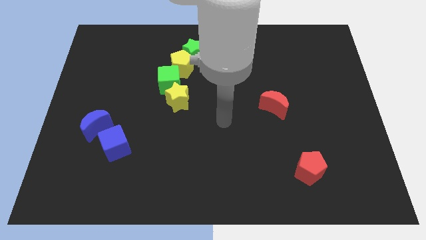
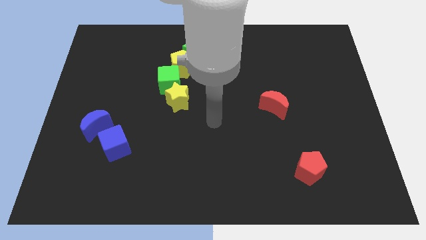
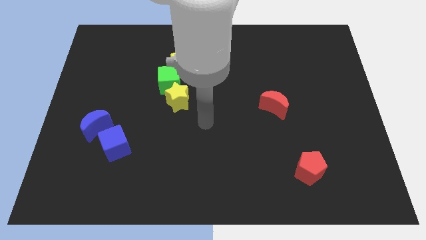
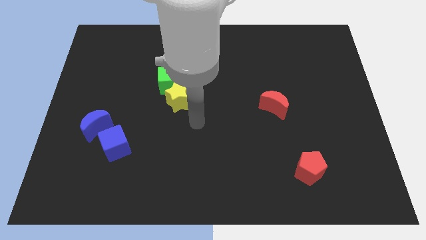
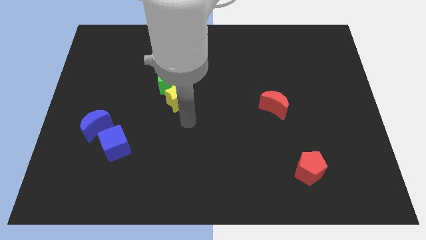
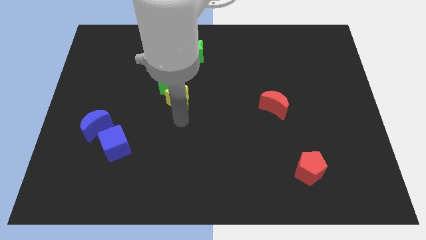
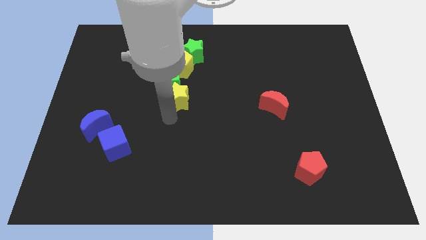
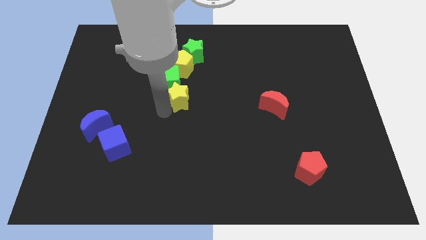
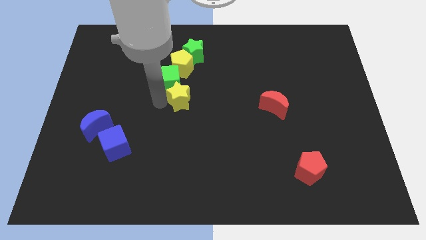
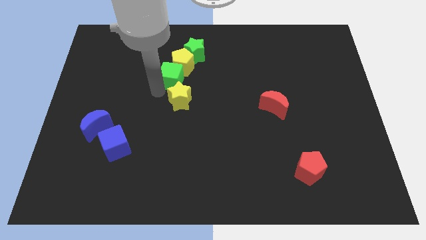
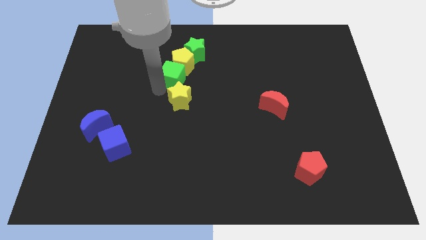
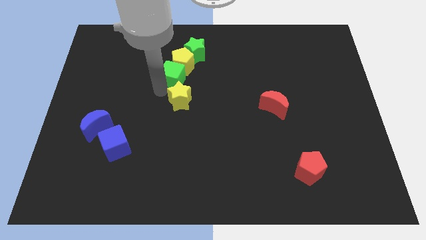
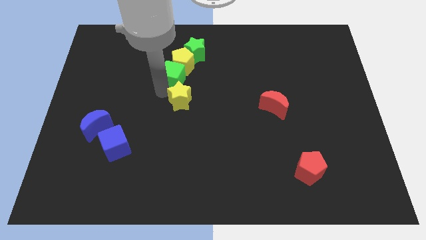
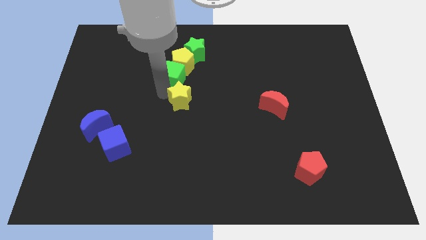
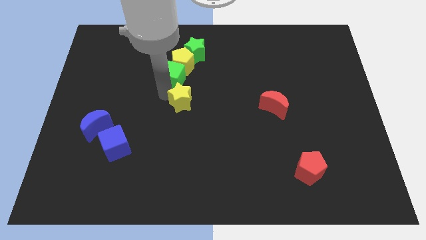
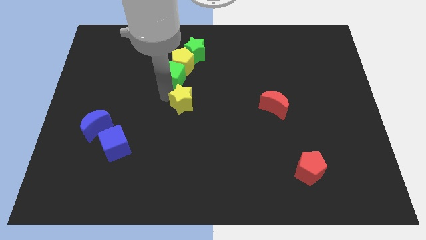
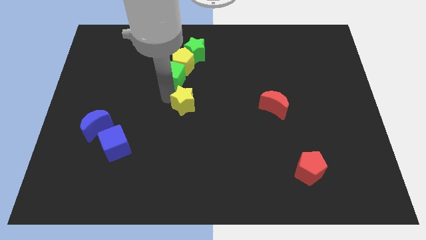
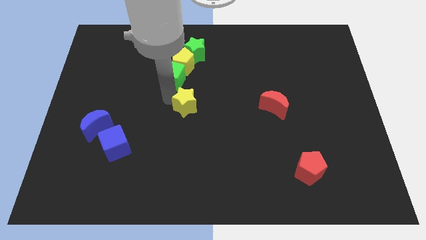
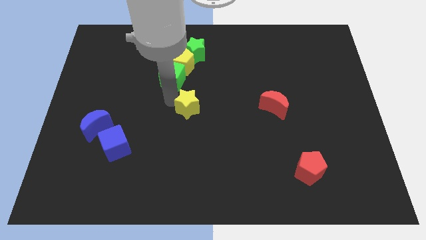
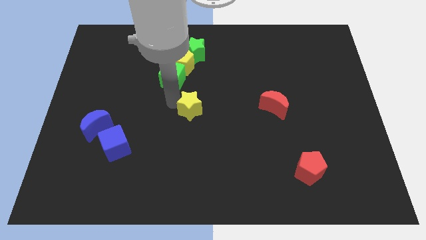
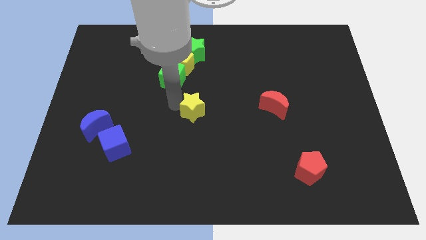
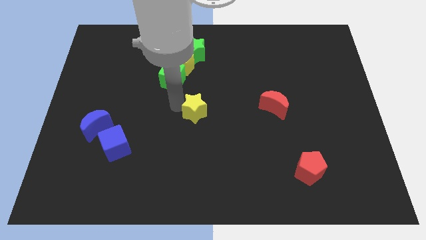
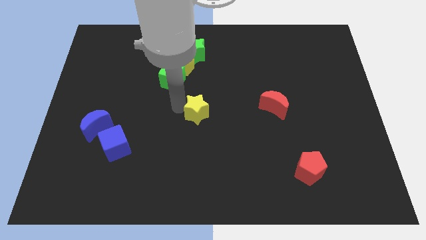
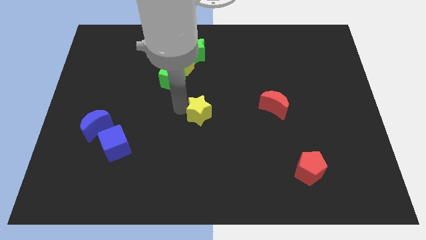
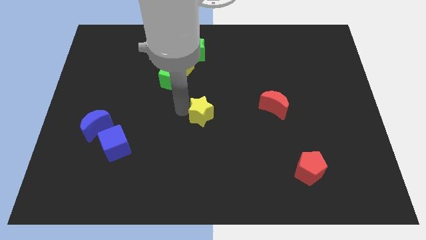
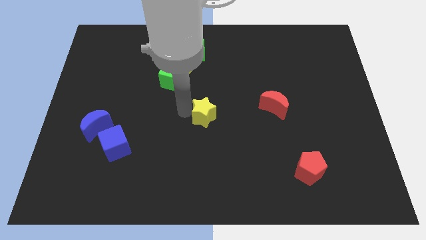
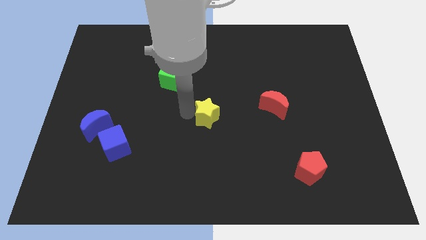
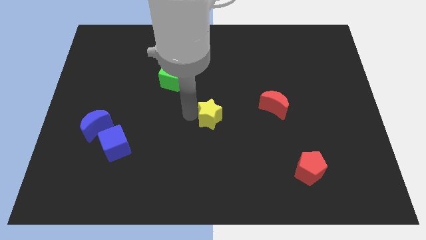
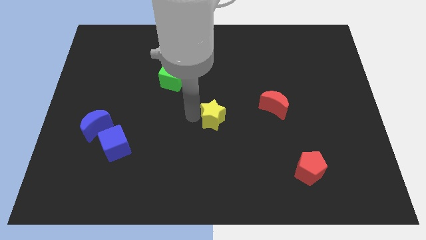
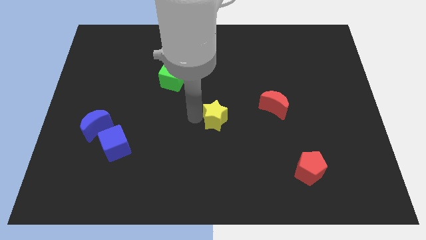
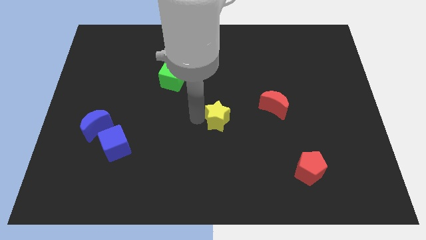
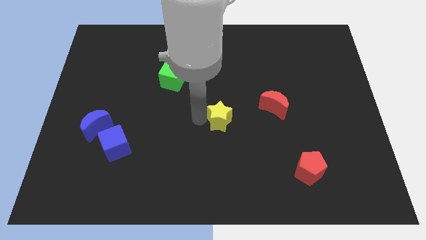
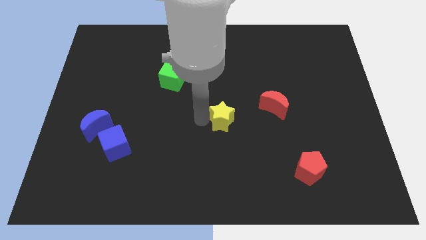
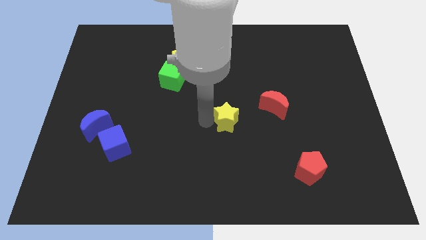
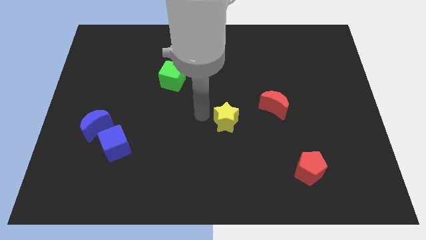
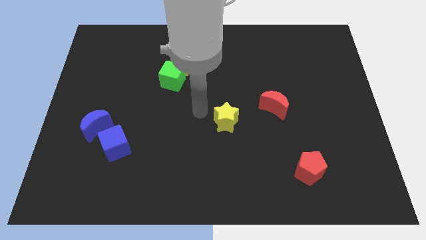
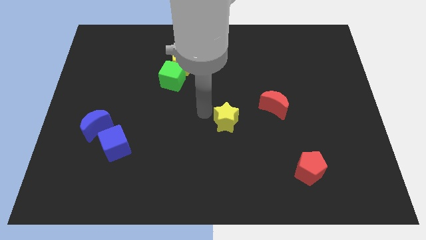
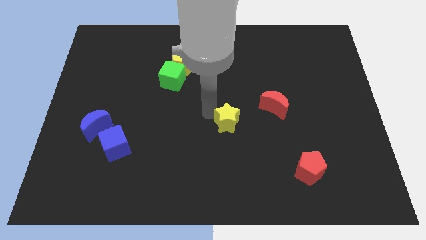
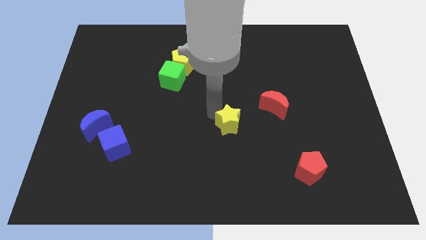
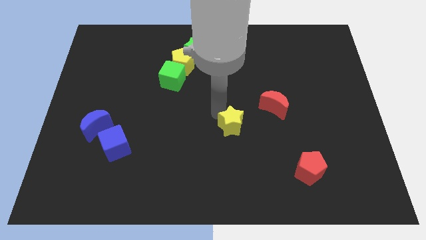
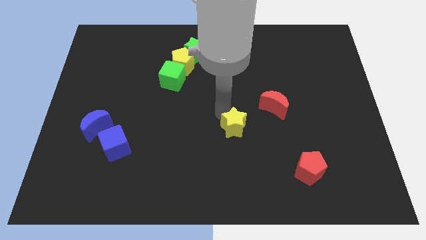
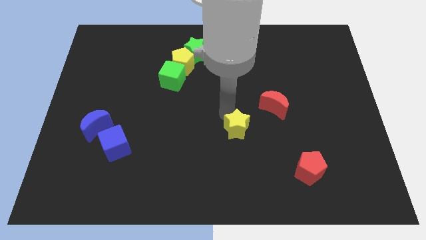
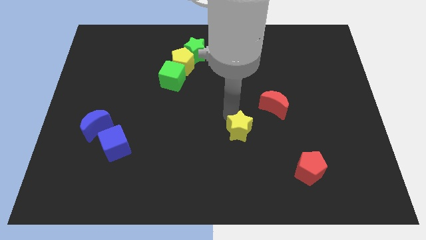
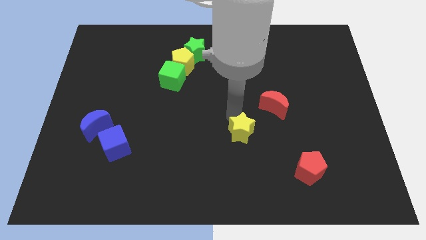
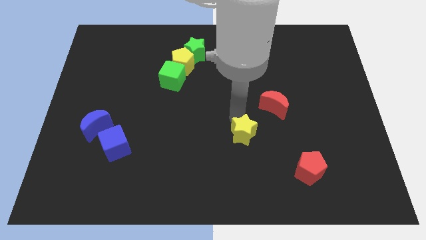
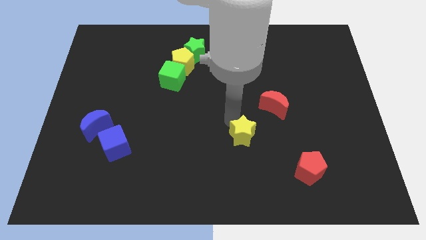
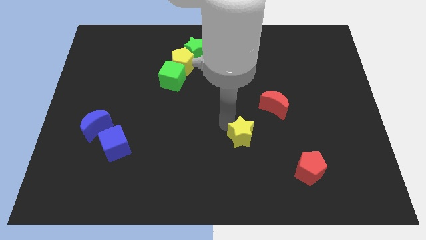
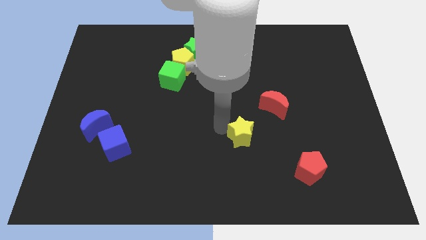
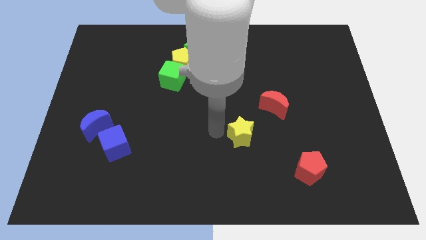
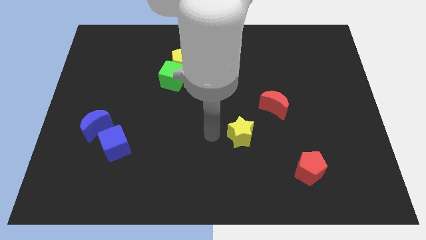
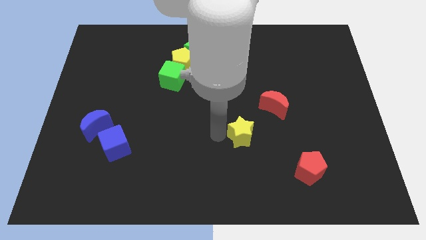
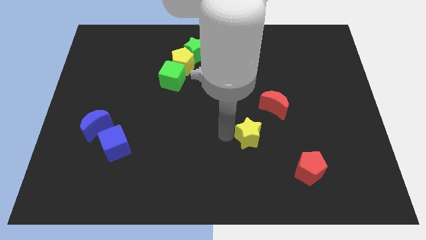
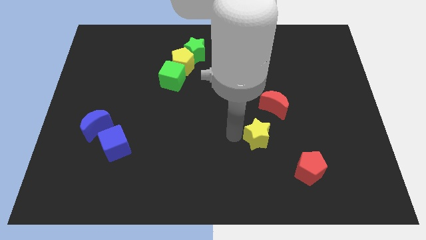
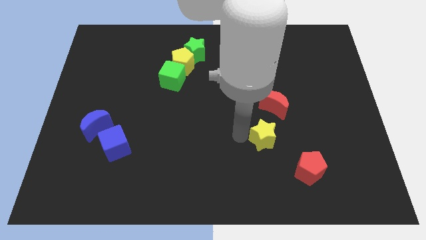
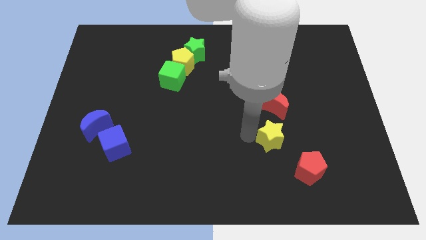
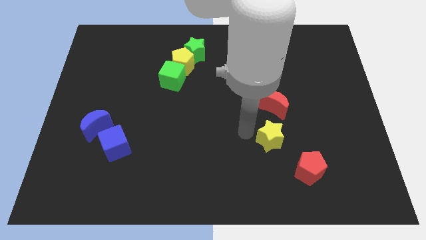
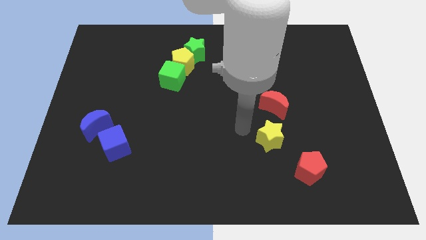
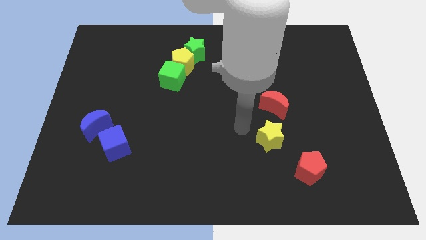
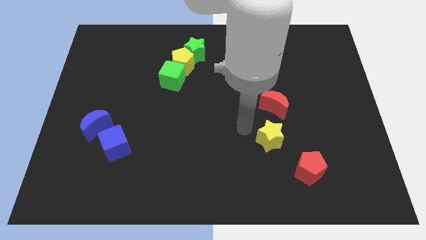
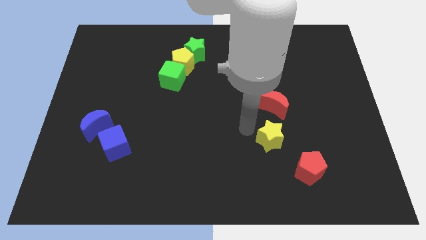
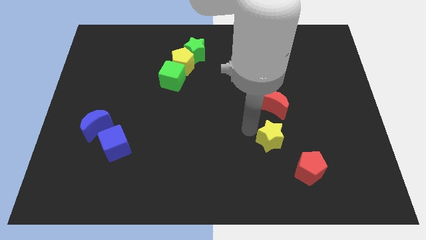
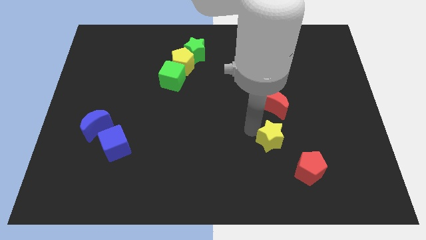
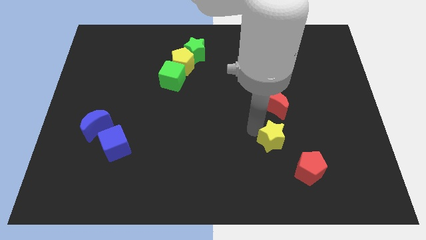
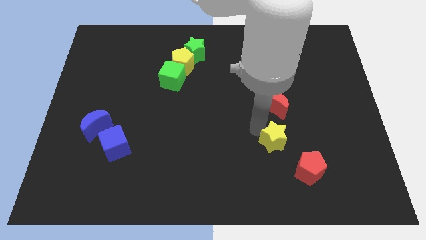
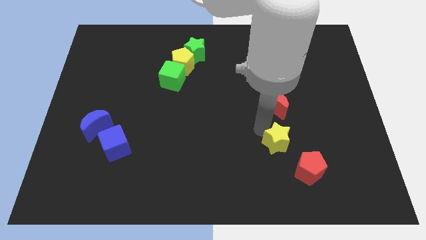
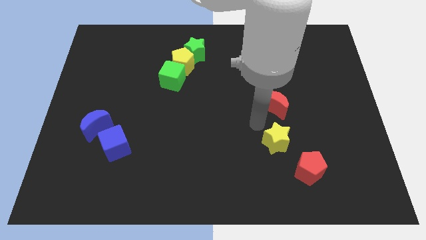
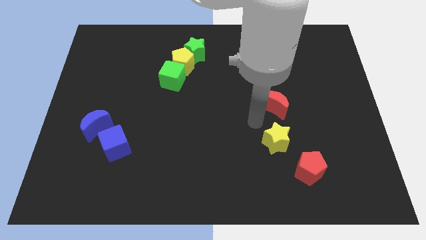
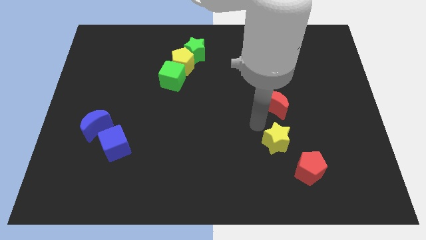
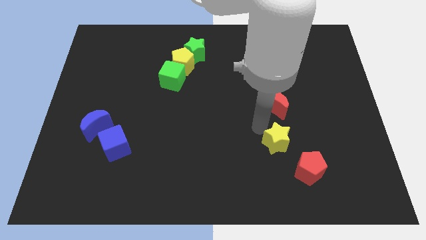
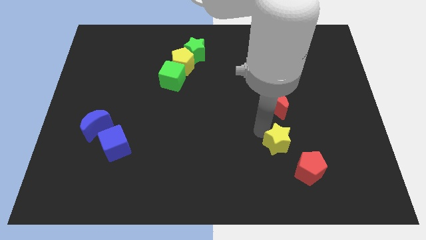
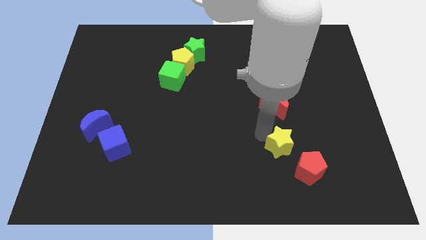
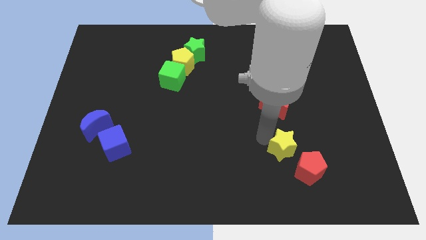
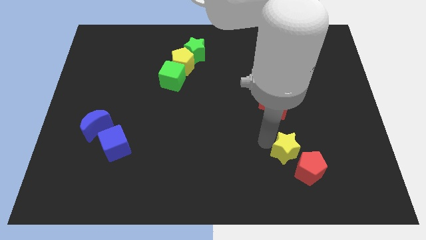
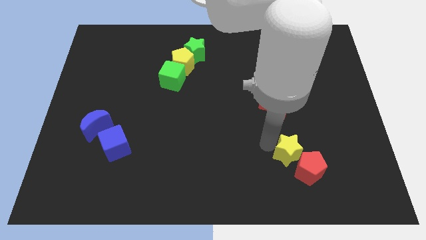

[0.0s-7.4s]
put the yellow star next to the red pentagon
